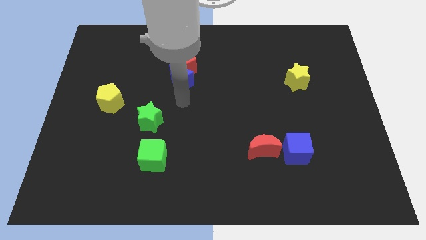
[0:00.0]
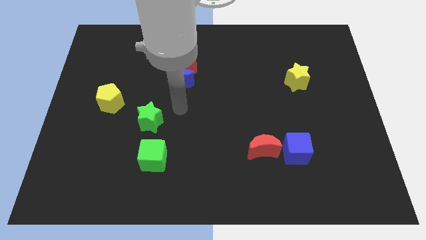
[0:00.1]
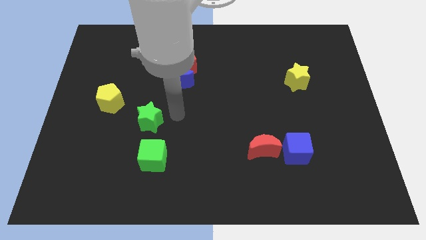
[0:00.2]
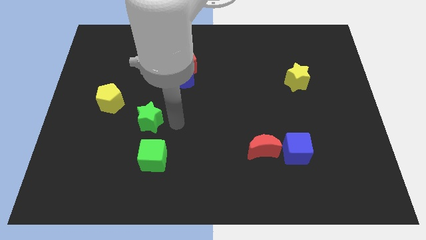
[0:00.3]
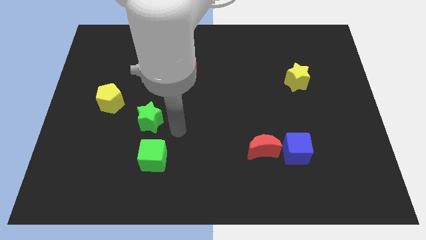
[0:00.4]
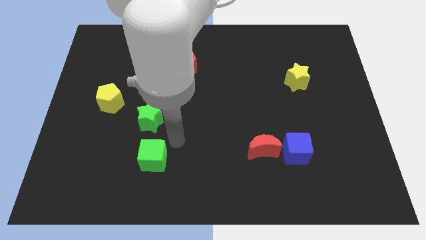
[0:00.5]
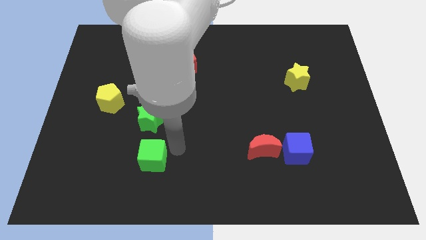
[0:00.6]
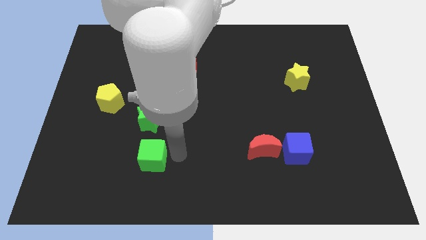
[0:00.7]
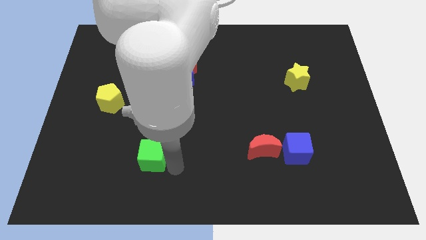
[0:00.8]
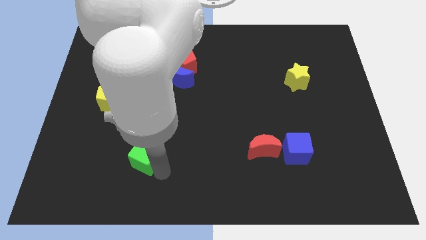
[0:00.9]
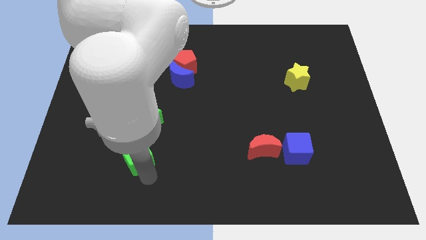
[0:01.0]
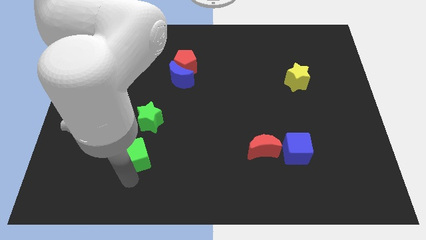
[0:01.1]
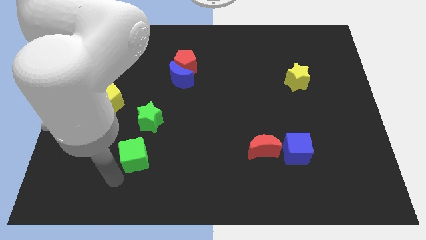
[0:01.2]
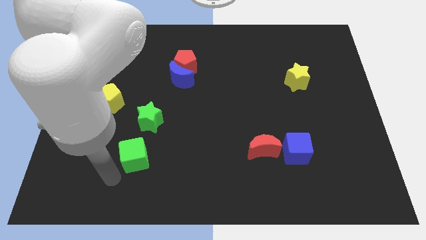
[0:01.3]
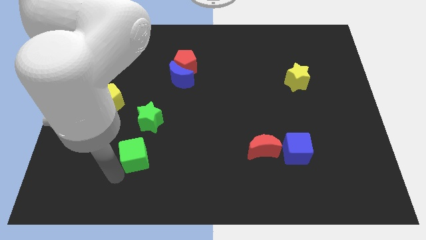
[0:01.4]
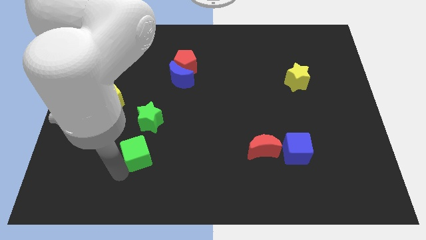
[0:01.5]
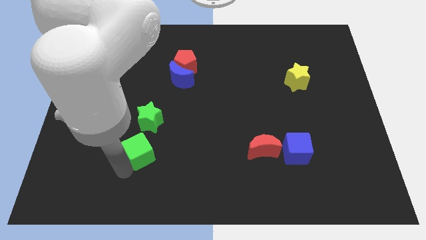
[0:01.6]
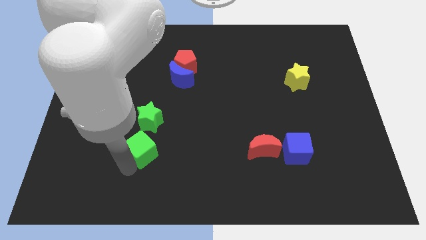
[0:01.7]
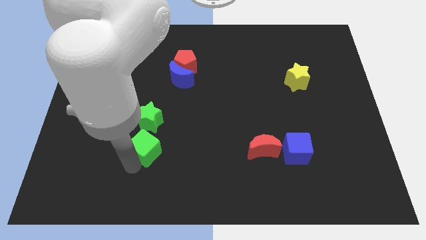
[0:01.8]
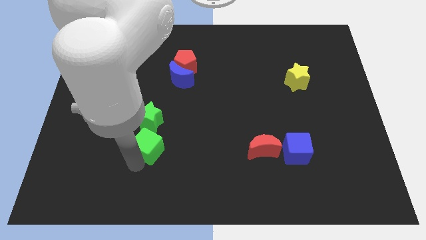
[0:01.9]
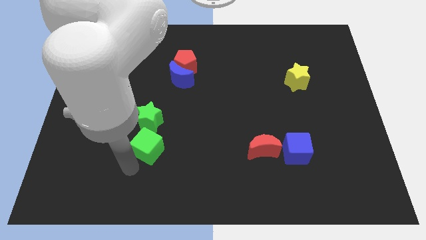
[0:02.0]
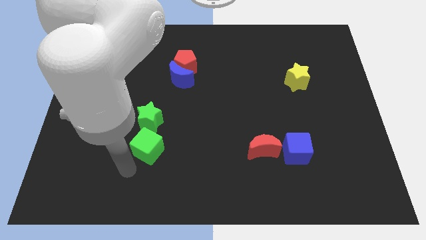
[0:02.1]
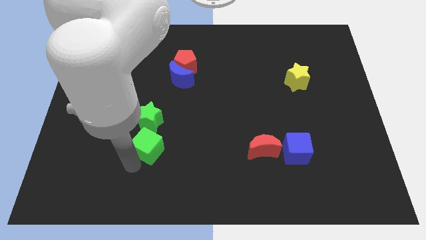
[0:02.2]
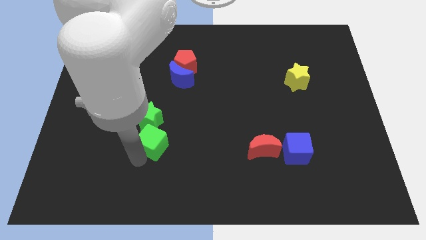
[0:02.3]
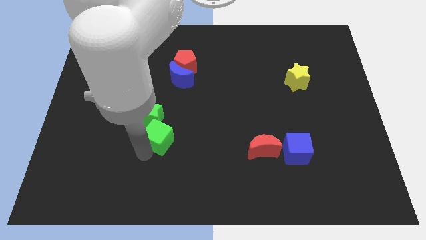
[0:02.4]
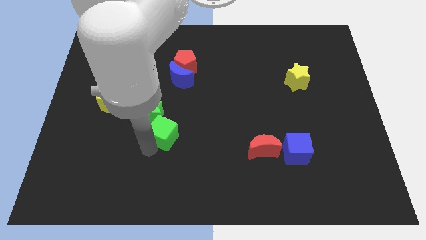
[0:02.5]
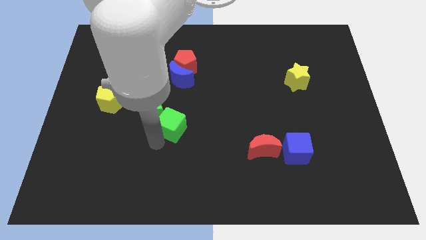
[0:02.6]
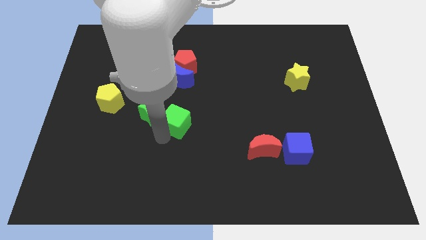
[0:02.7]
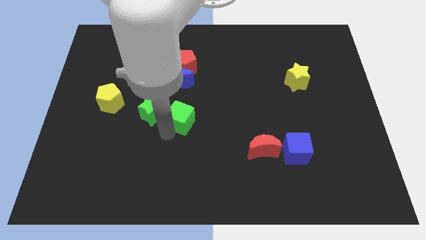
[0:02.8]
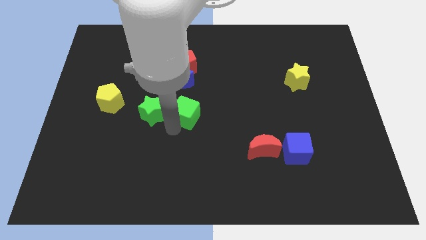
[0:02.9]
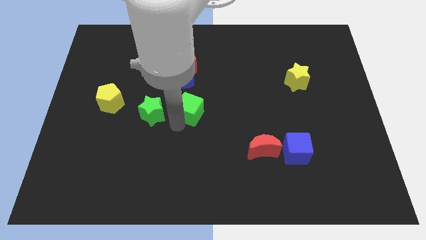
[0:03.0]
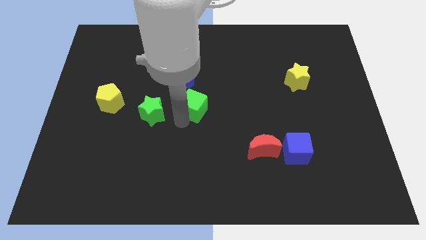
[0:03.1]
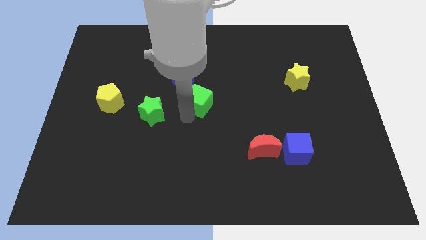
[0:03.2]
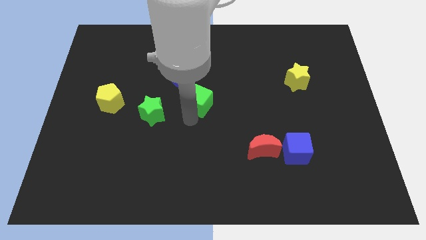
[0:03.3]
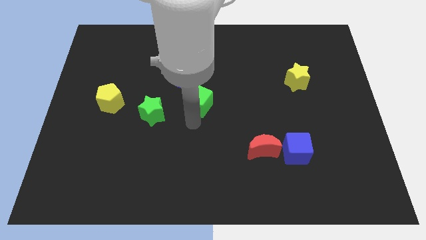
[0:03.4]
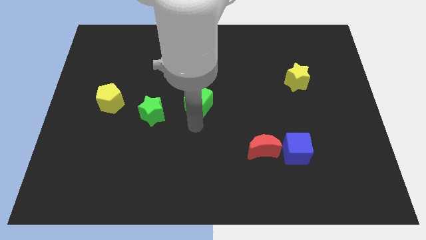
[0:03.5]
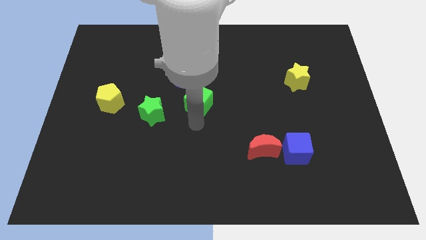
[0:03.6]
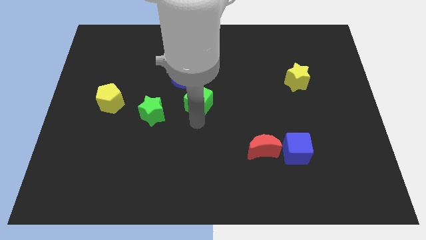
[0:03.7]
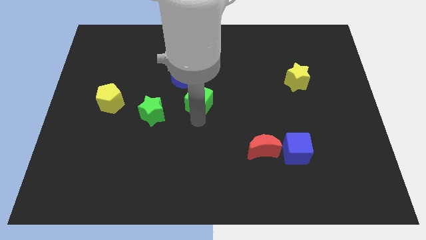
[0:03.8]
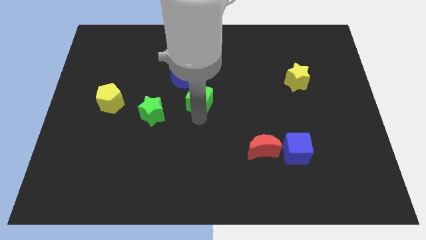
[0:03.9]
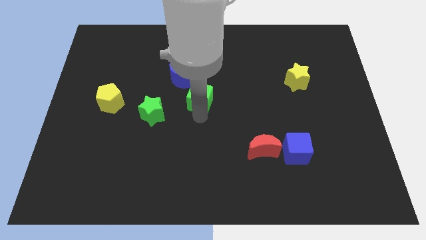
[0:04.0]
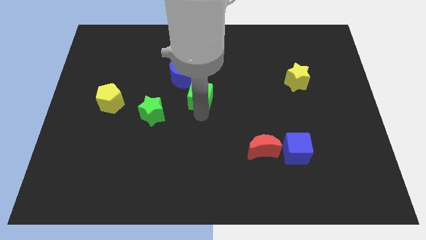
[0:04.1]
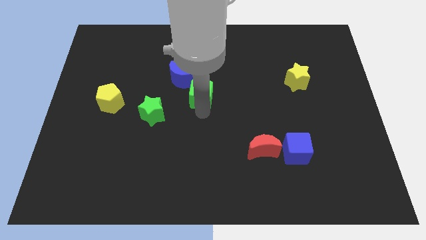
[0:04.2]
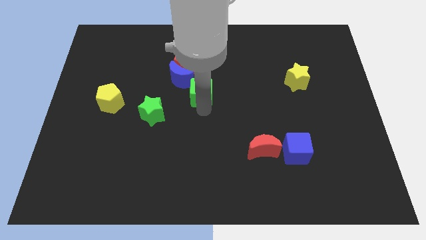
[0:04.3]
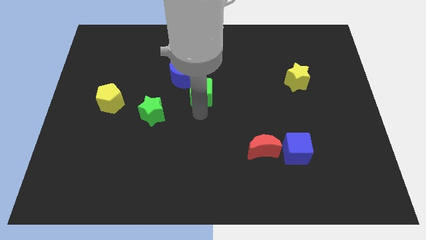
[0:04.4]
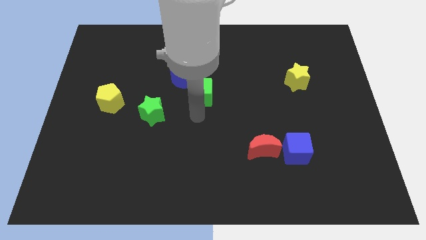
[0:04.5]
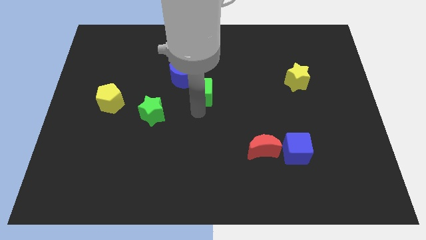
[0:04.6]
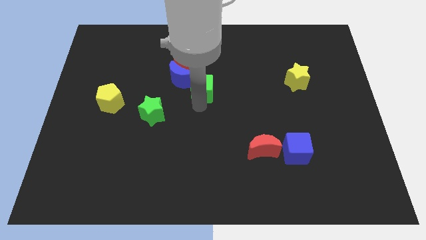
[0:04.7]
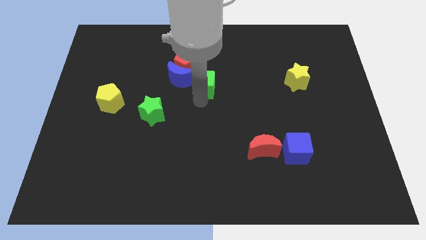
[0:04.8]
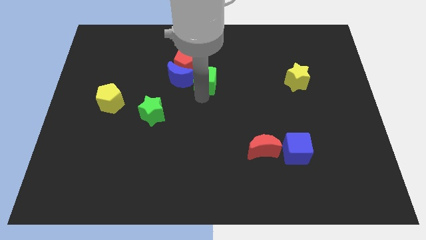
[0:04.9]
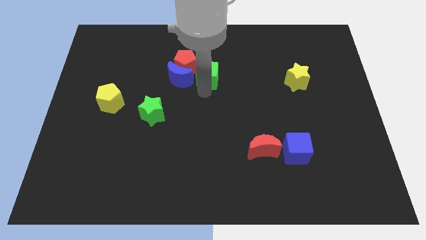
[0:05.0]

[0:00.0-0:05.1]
put the green cube to the top right of the blue moon

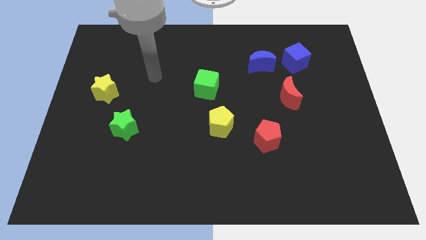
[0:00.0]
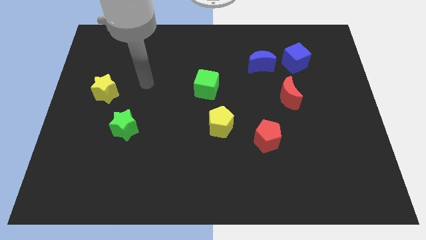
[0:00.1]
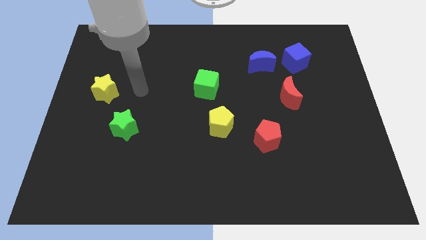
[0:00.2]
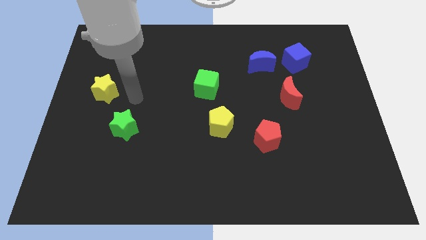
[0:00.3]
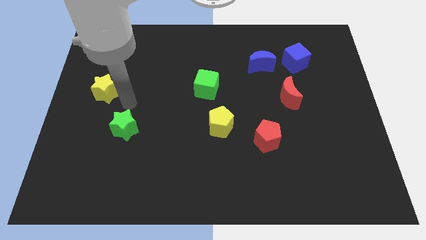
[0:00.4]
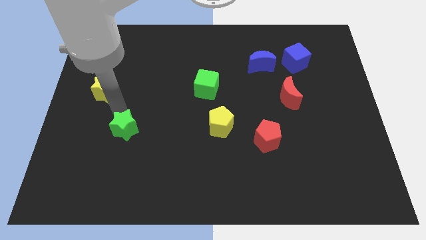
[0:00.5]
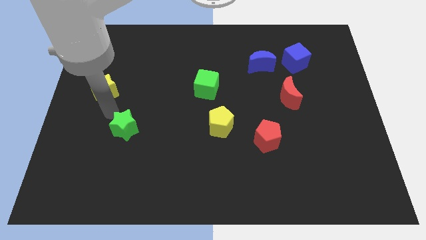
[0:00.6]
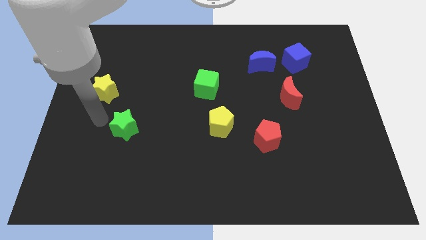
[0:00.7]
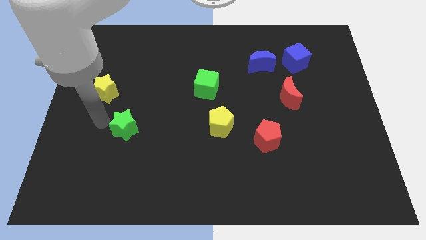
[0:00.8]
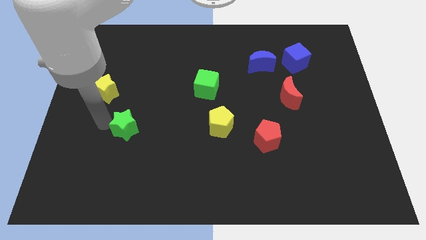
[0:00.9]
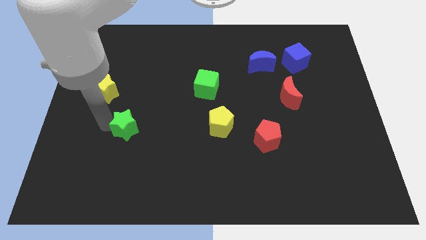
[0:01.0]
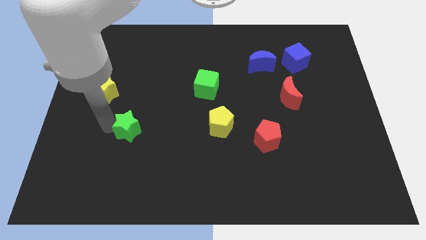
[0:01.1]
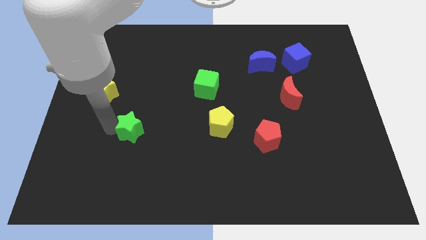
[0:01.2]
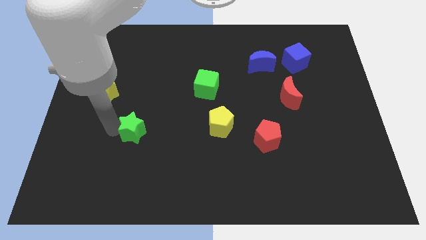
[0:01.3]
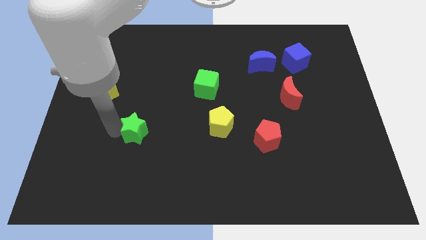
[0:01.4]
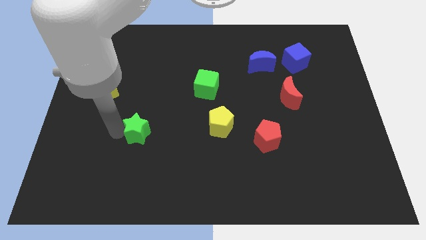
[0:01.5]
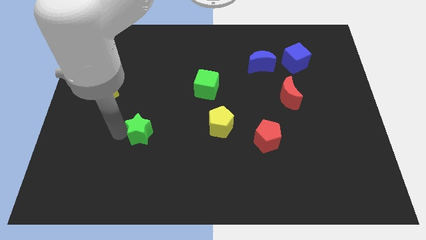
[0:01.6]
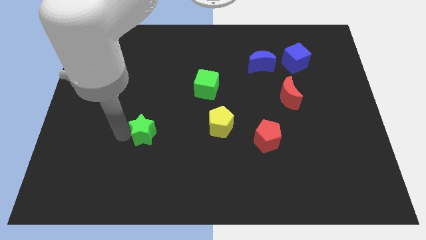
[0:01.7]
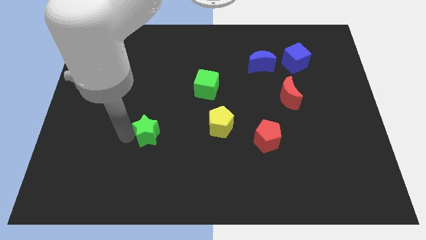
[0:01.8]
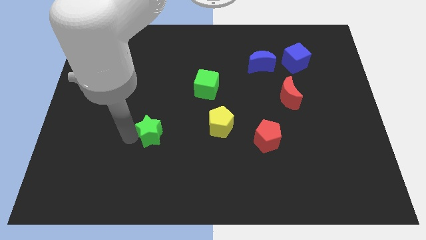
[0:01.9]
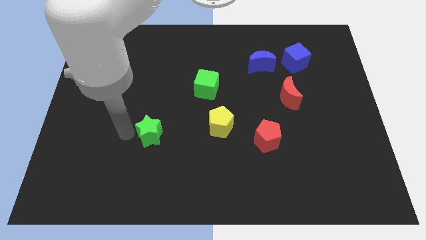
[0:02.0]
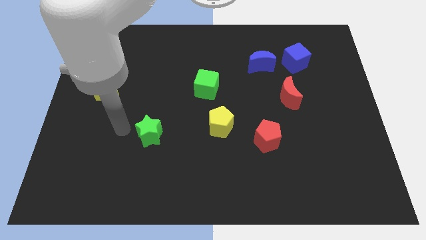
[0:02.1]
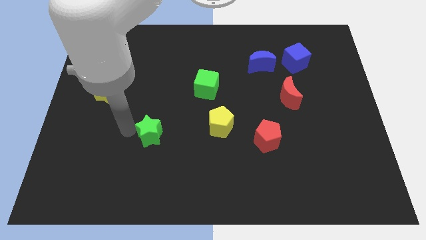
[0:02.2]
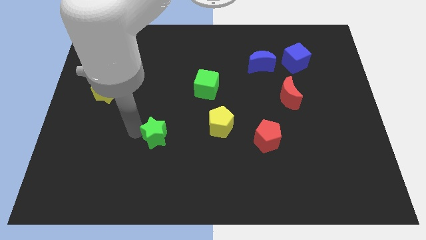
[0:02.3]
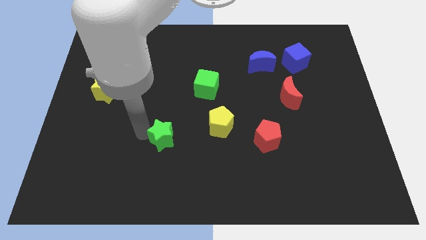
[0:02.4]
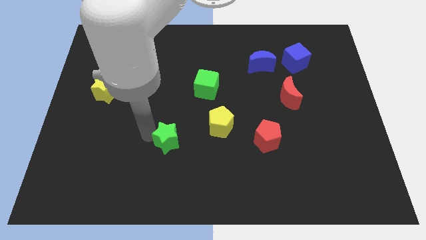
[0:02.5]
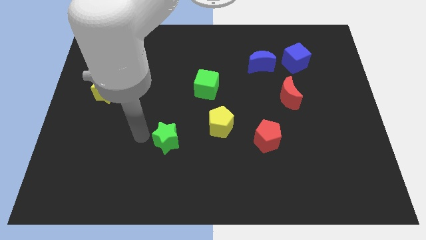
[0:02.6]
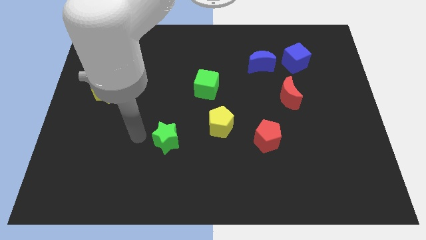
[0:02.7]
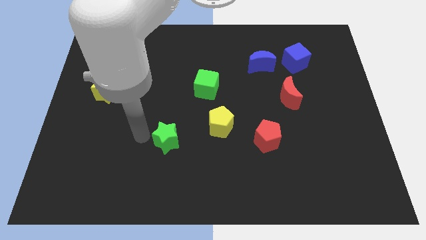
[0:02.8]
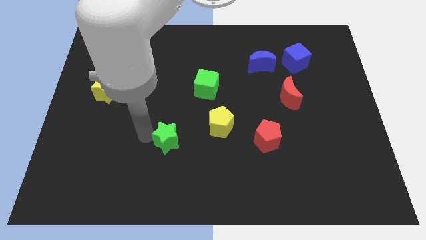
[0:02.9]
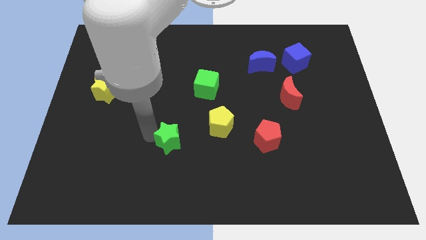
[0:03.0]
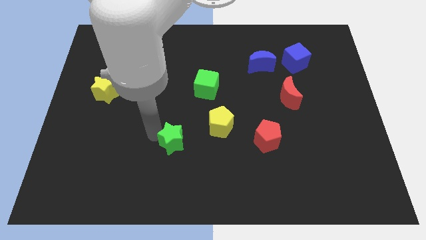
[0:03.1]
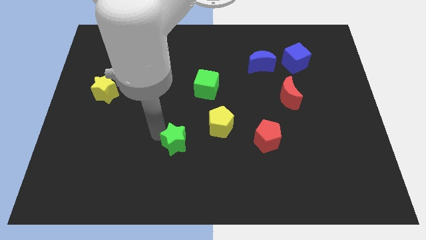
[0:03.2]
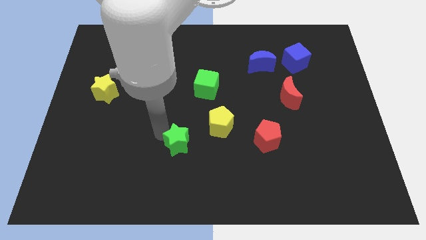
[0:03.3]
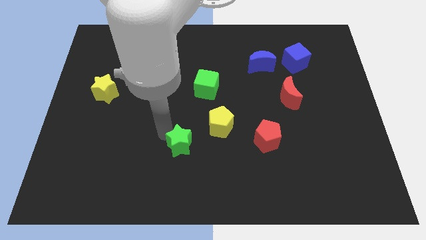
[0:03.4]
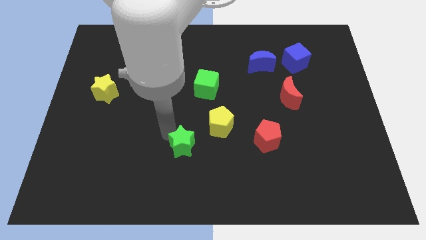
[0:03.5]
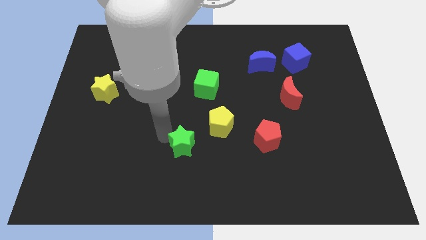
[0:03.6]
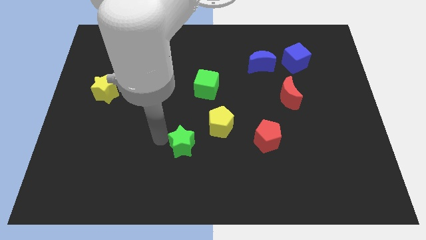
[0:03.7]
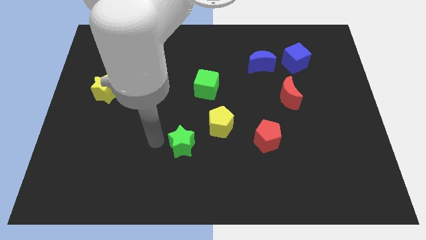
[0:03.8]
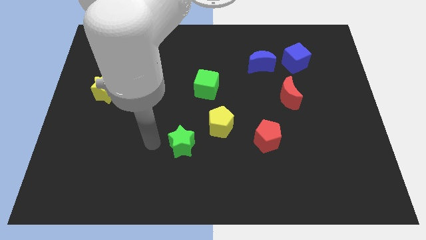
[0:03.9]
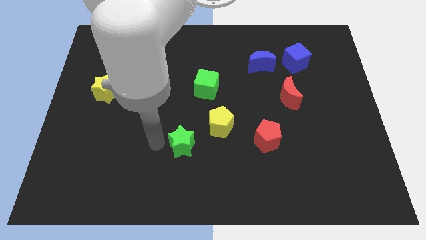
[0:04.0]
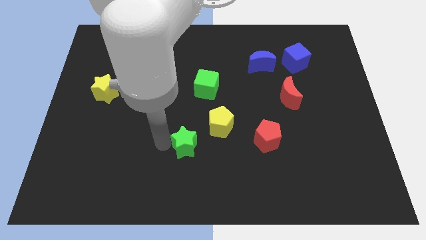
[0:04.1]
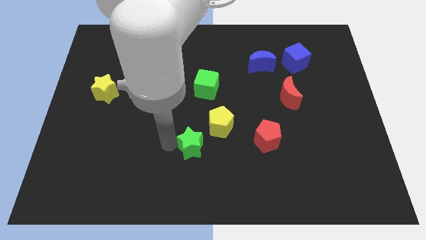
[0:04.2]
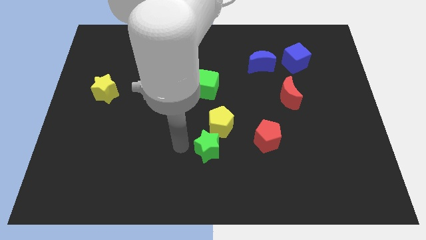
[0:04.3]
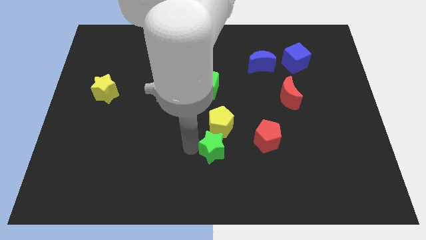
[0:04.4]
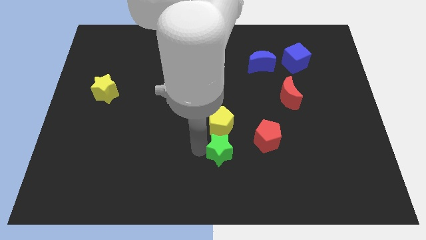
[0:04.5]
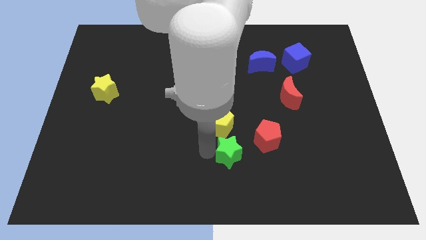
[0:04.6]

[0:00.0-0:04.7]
move the green star to the bottom right side of the yellow pentagon
